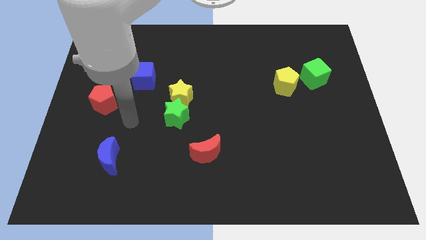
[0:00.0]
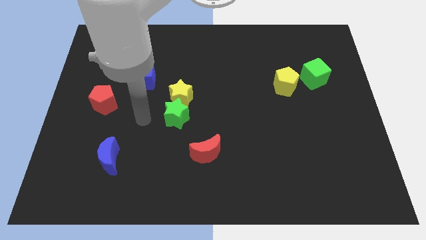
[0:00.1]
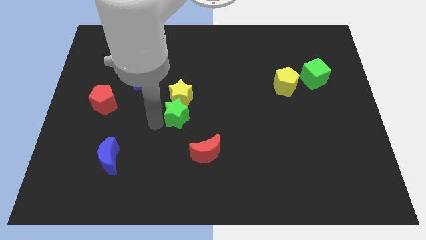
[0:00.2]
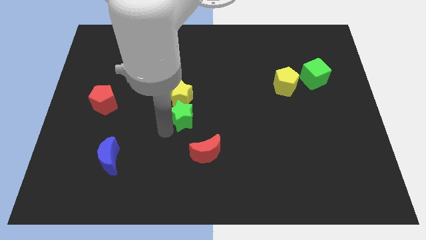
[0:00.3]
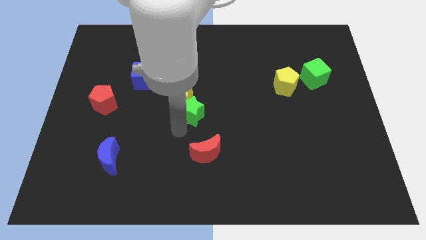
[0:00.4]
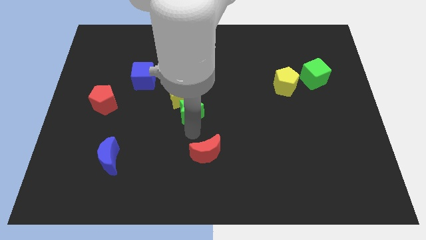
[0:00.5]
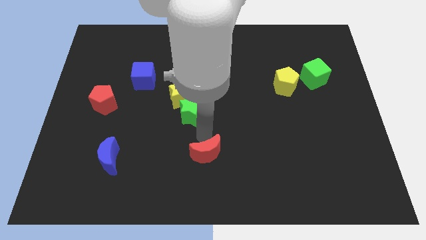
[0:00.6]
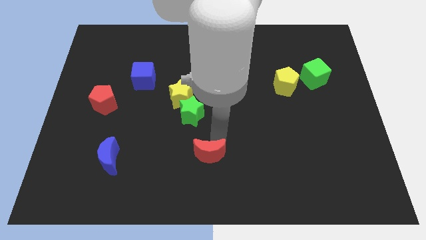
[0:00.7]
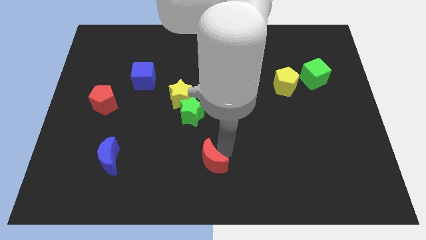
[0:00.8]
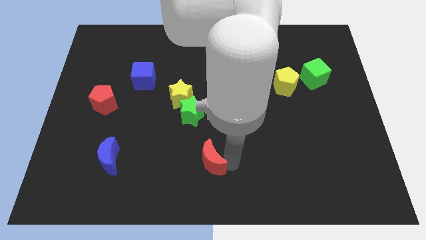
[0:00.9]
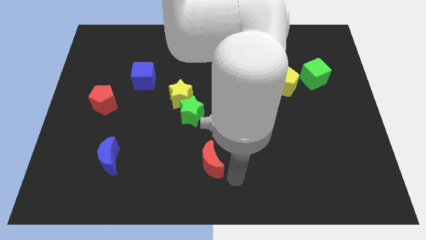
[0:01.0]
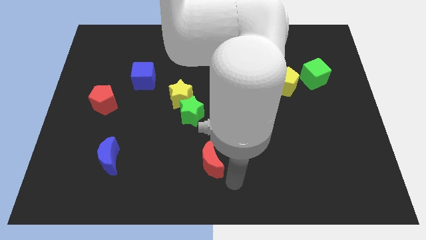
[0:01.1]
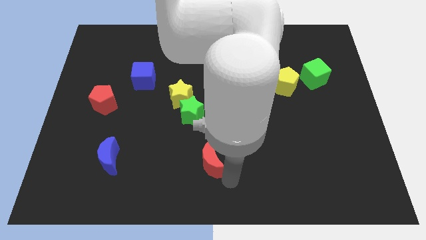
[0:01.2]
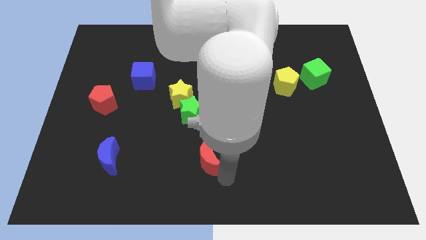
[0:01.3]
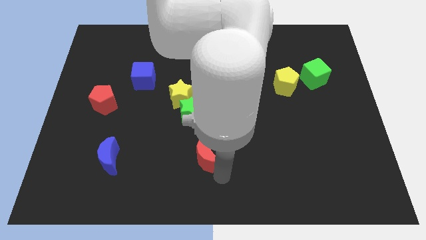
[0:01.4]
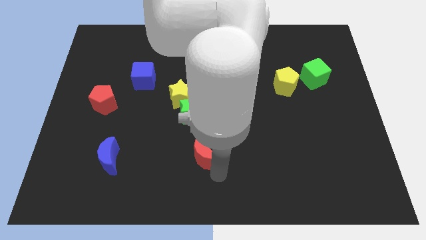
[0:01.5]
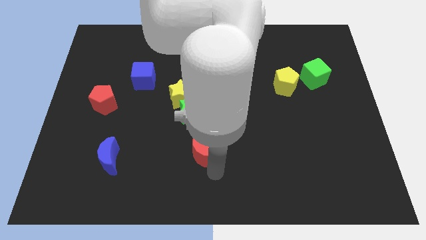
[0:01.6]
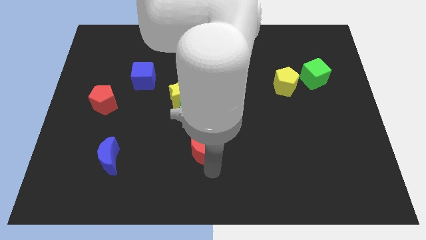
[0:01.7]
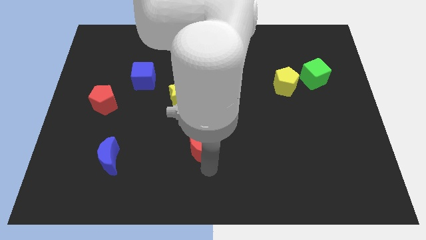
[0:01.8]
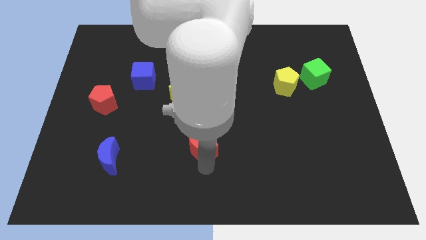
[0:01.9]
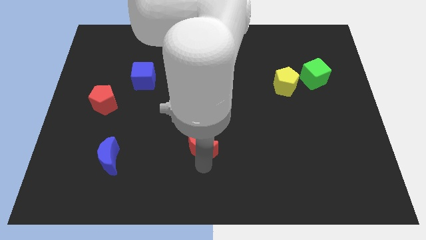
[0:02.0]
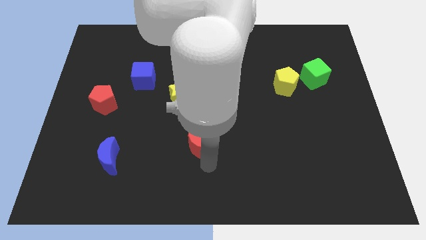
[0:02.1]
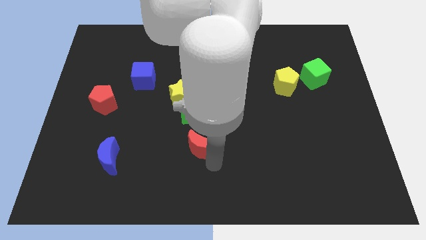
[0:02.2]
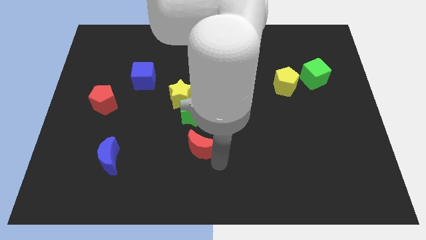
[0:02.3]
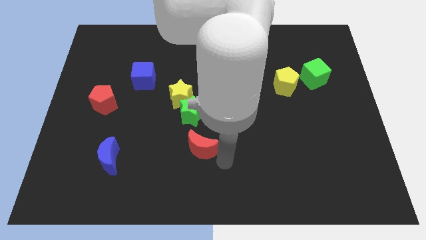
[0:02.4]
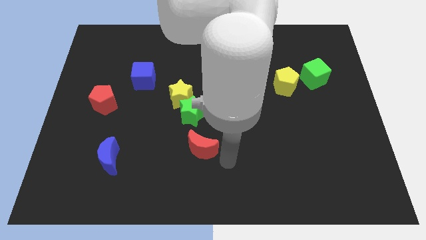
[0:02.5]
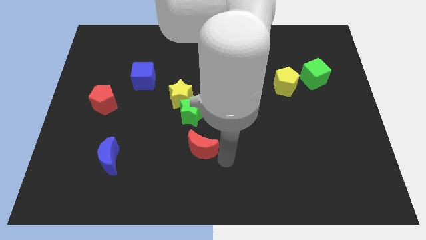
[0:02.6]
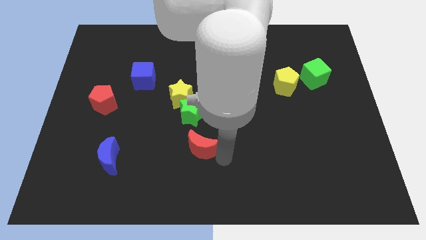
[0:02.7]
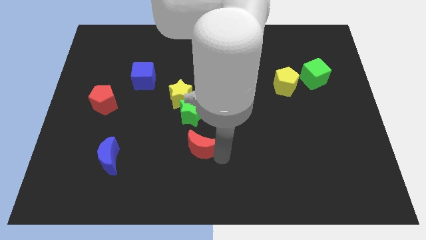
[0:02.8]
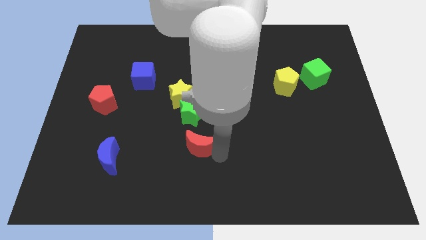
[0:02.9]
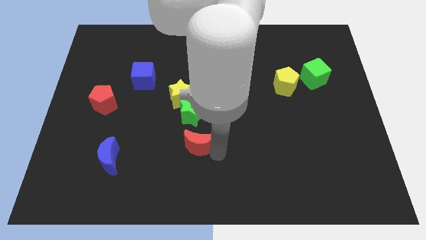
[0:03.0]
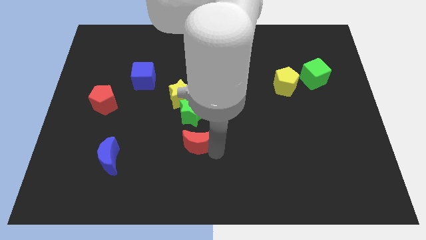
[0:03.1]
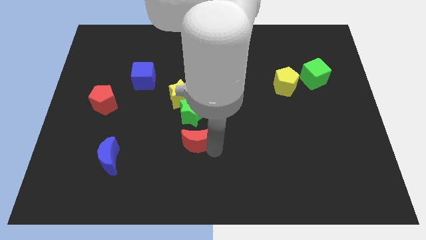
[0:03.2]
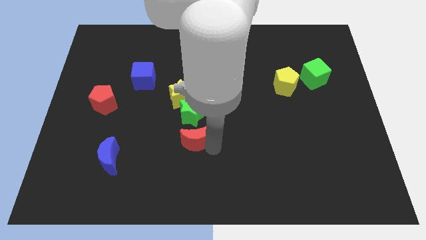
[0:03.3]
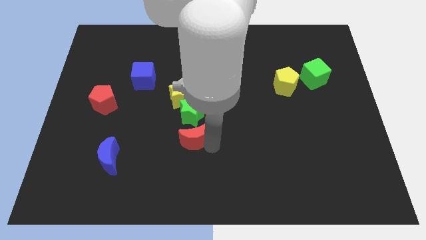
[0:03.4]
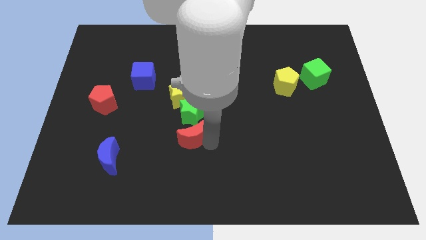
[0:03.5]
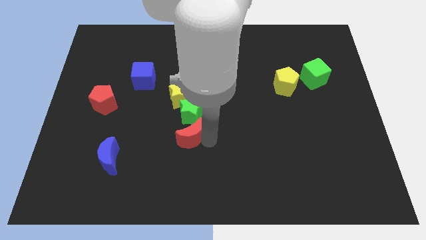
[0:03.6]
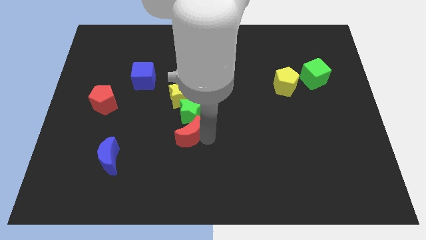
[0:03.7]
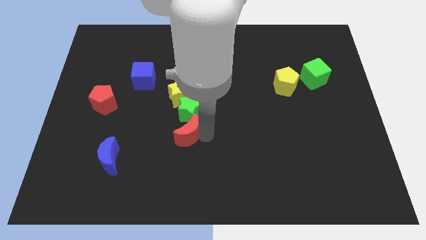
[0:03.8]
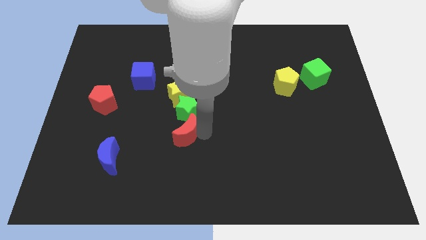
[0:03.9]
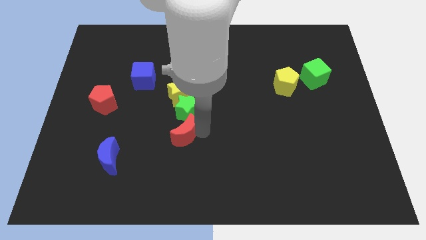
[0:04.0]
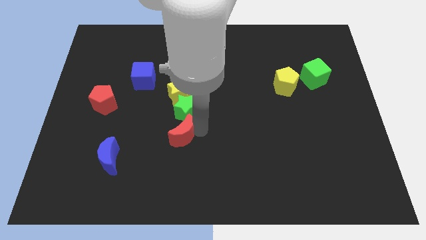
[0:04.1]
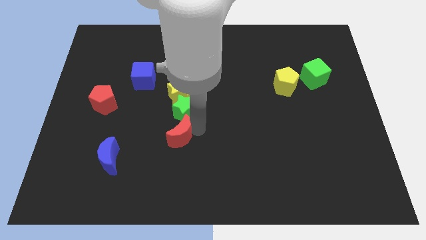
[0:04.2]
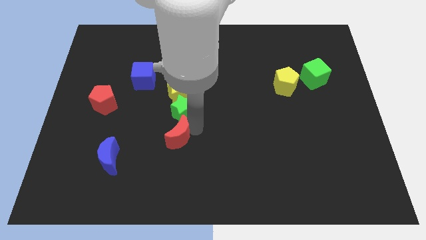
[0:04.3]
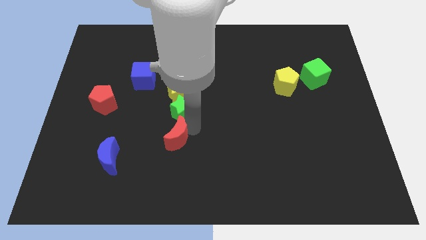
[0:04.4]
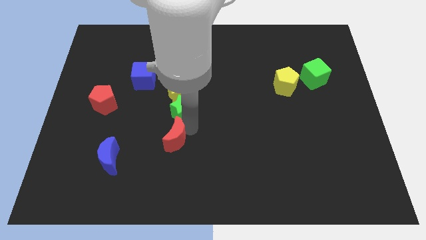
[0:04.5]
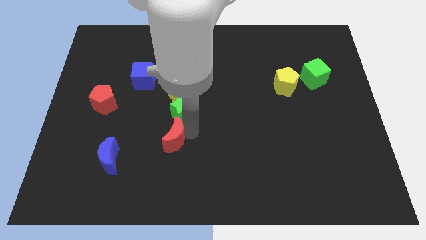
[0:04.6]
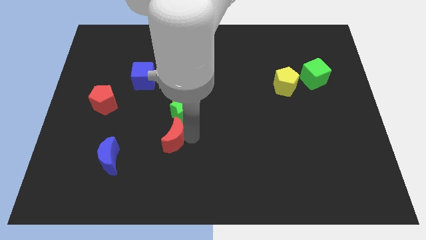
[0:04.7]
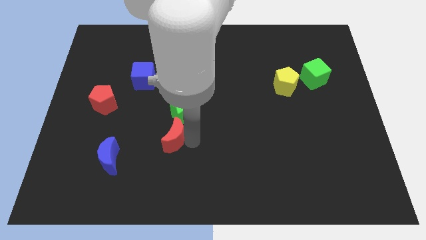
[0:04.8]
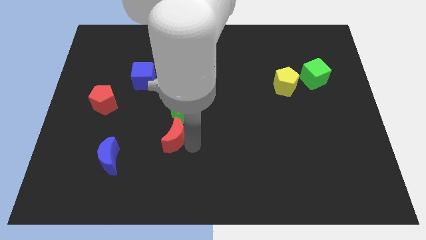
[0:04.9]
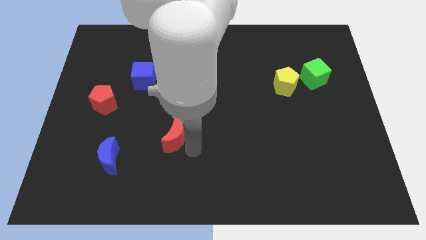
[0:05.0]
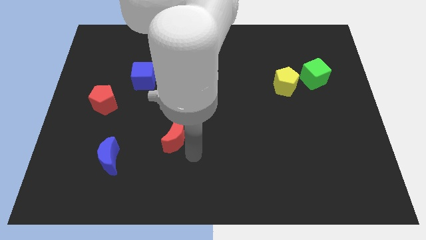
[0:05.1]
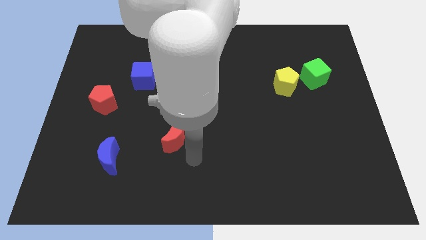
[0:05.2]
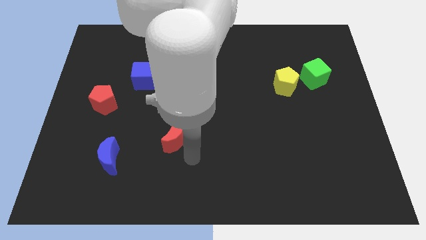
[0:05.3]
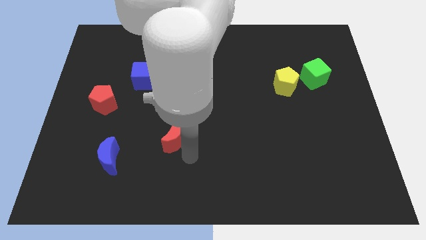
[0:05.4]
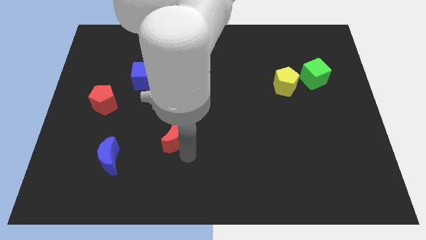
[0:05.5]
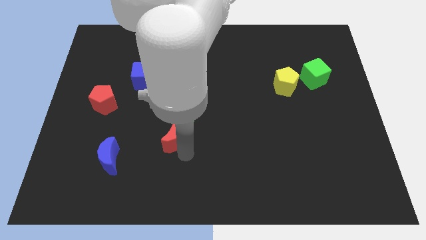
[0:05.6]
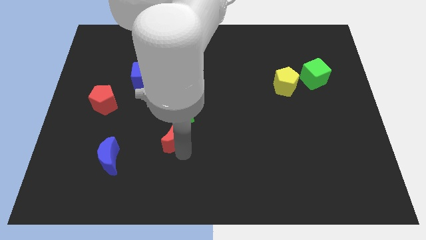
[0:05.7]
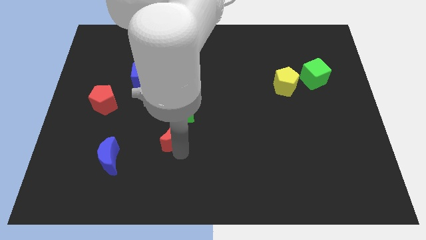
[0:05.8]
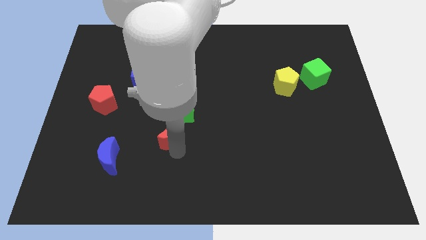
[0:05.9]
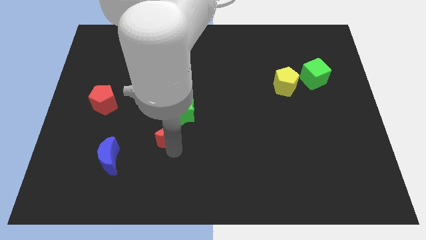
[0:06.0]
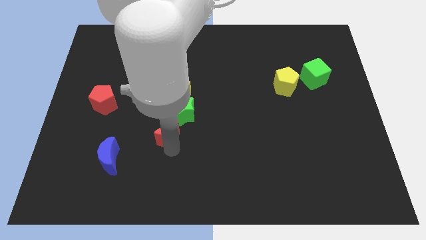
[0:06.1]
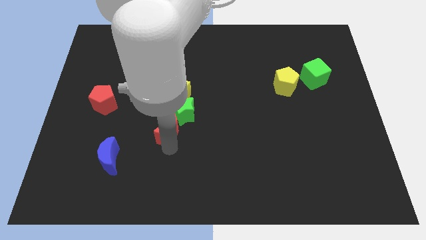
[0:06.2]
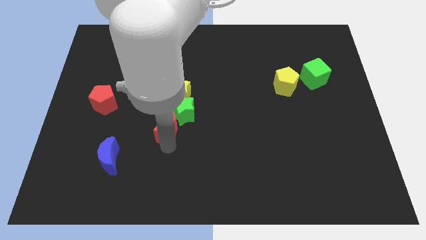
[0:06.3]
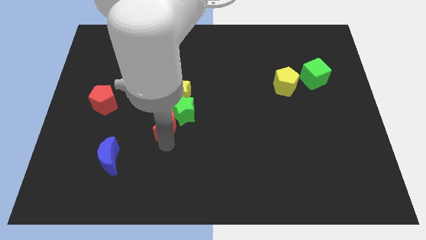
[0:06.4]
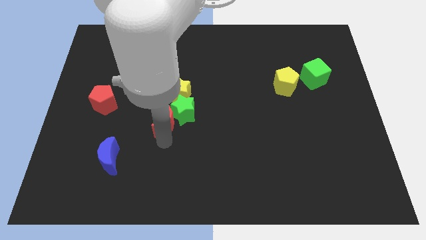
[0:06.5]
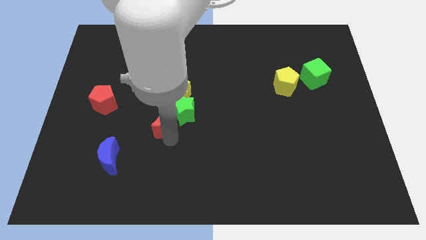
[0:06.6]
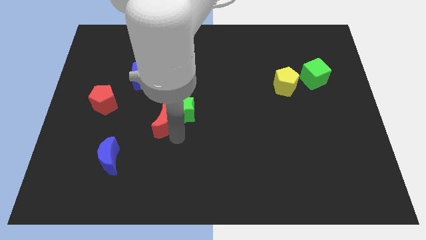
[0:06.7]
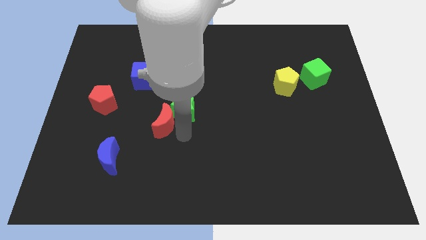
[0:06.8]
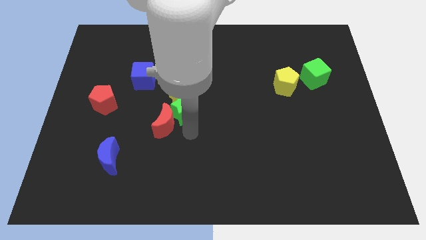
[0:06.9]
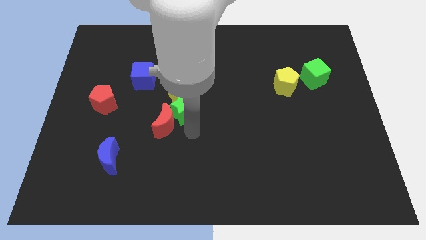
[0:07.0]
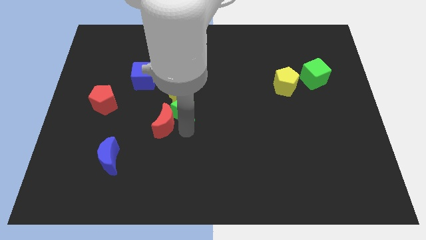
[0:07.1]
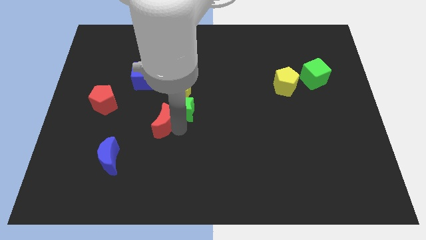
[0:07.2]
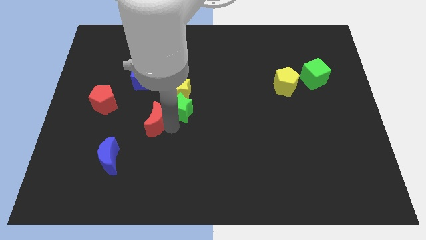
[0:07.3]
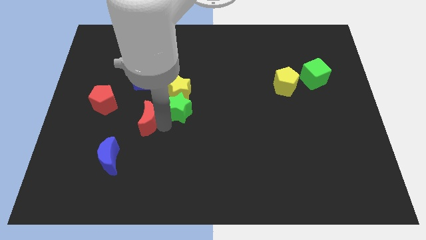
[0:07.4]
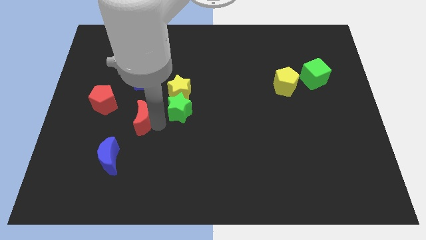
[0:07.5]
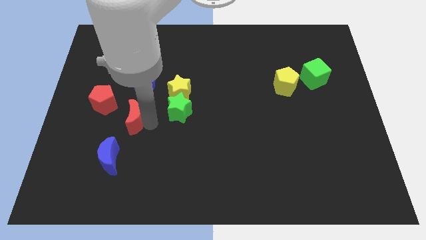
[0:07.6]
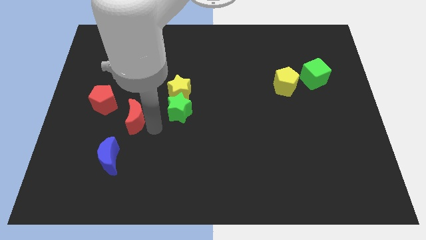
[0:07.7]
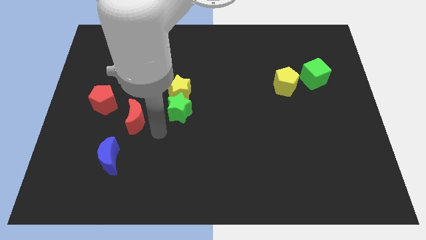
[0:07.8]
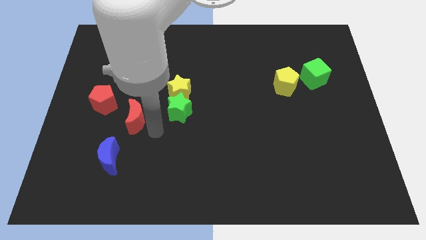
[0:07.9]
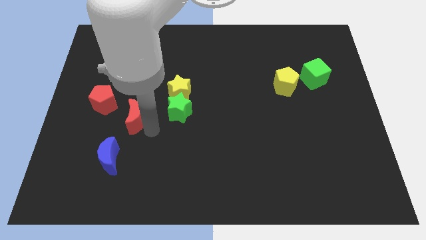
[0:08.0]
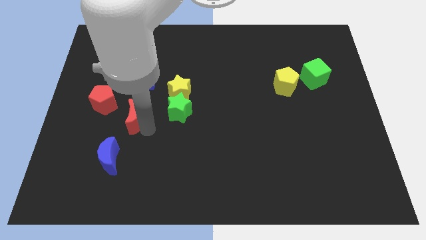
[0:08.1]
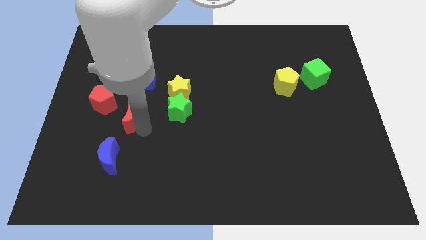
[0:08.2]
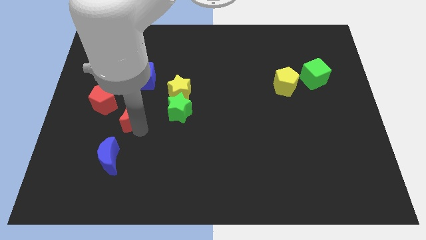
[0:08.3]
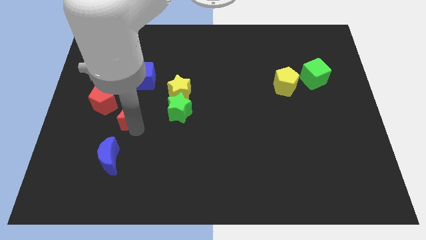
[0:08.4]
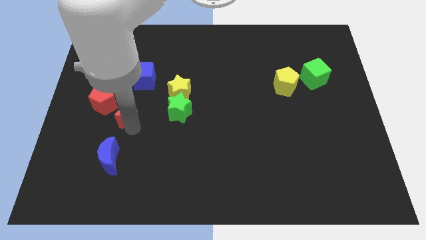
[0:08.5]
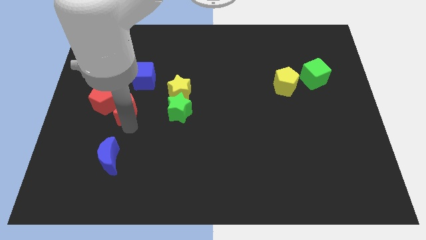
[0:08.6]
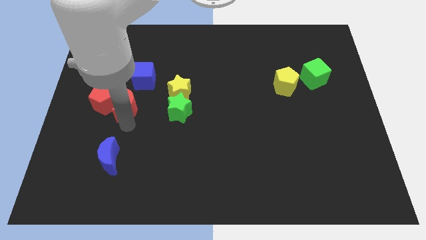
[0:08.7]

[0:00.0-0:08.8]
push the red moon towards the red pentagon
